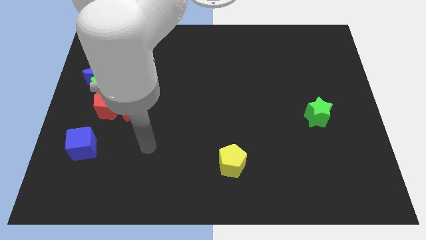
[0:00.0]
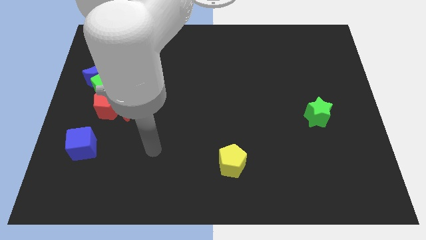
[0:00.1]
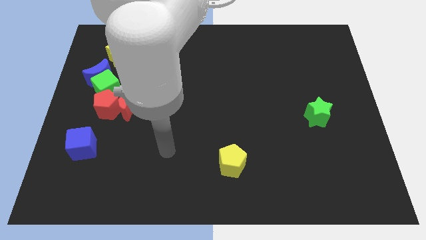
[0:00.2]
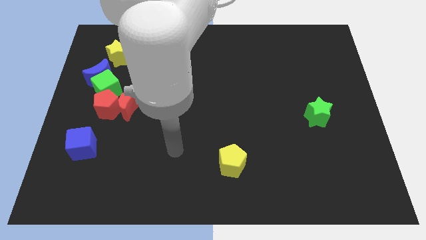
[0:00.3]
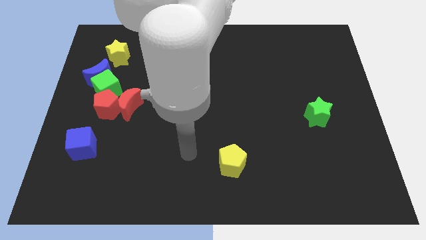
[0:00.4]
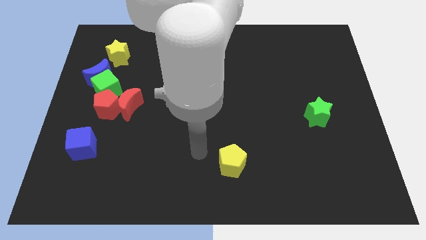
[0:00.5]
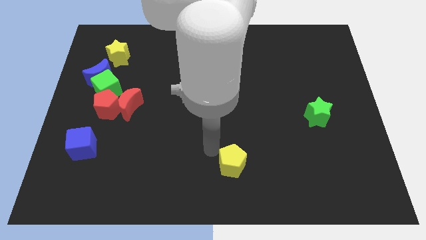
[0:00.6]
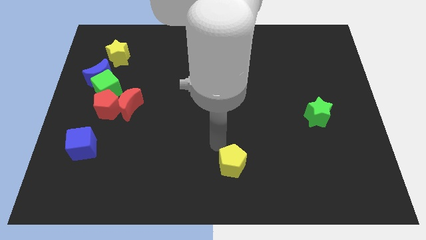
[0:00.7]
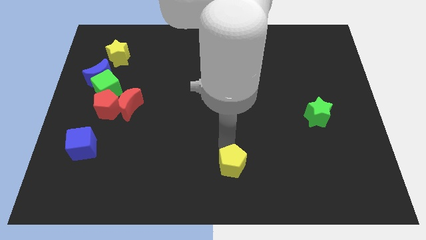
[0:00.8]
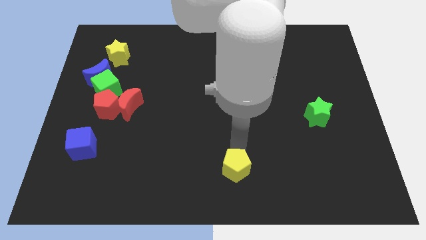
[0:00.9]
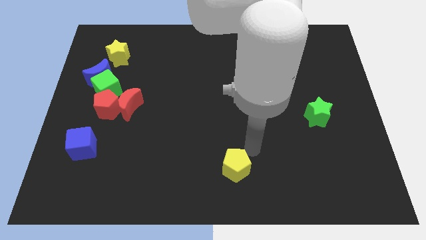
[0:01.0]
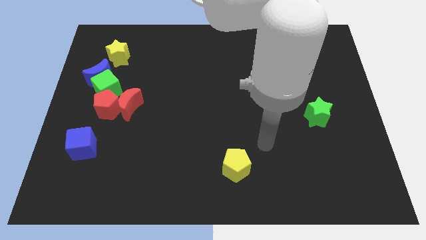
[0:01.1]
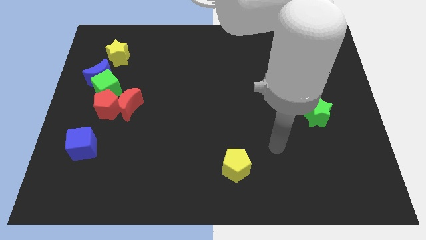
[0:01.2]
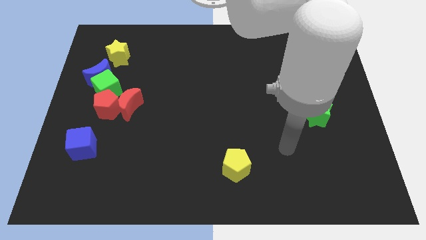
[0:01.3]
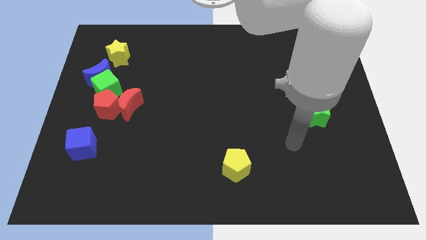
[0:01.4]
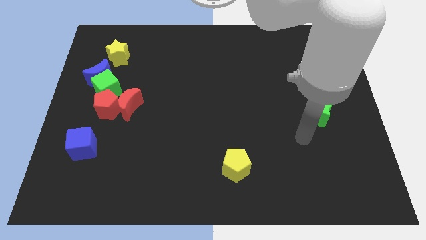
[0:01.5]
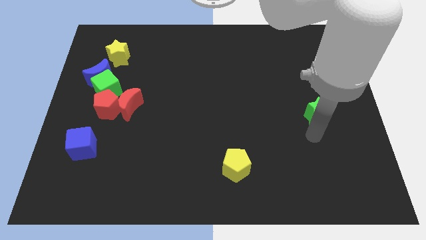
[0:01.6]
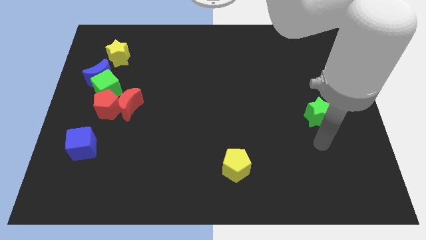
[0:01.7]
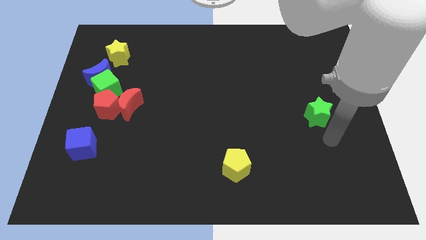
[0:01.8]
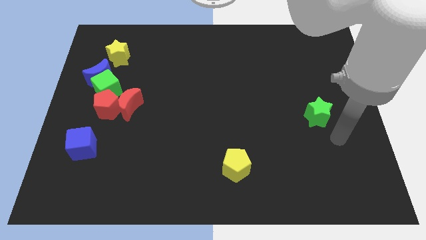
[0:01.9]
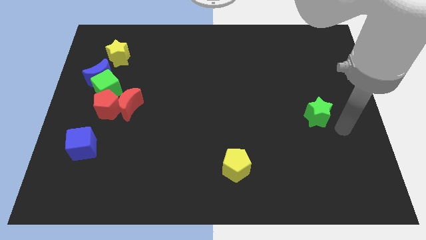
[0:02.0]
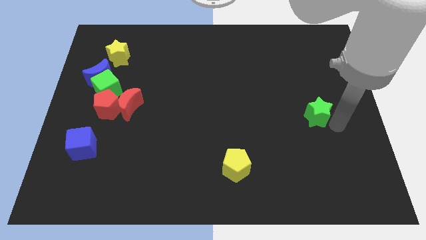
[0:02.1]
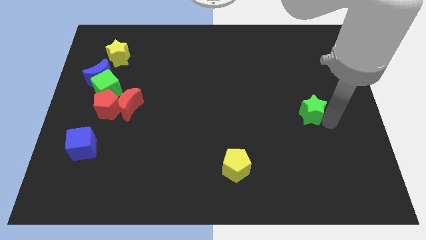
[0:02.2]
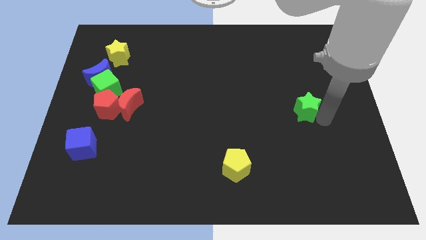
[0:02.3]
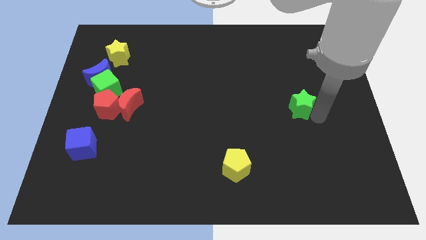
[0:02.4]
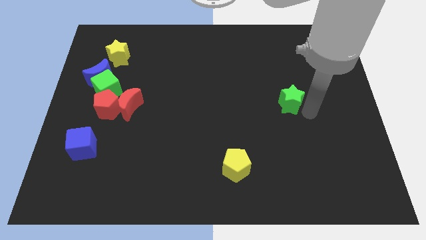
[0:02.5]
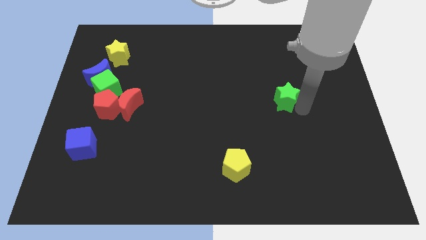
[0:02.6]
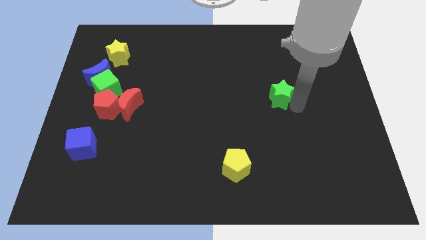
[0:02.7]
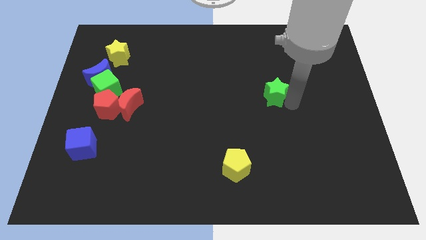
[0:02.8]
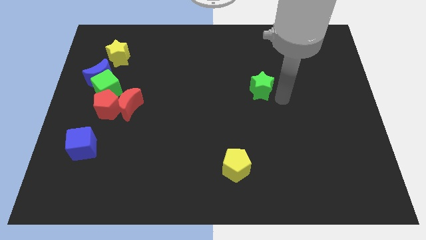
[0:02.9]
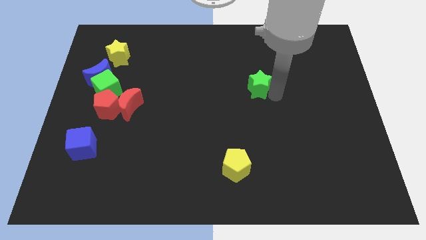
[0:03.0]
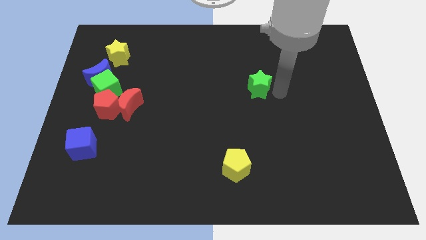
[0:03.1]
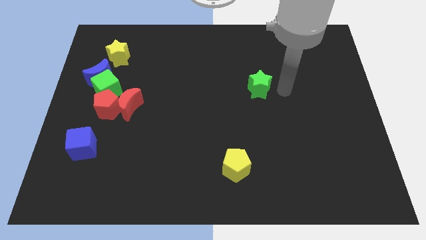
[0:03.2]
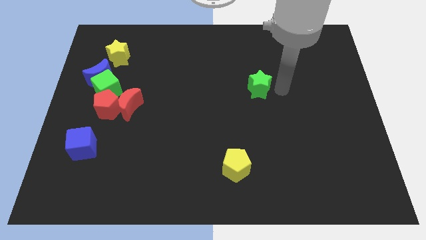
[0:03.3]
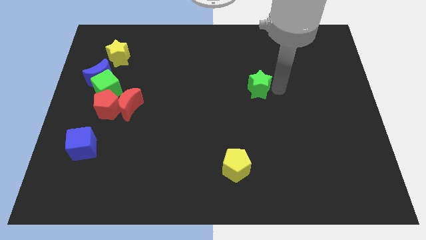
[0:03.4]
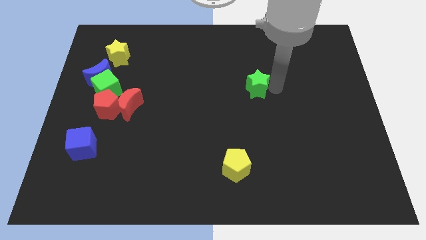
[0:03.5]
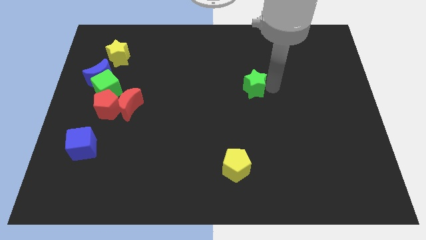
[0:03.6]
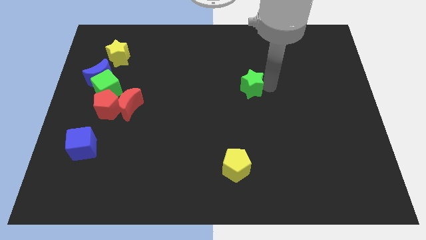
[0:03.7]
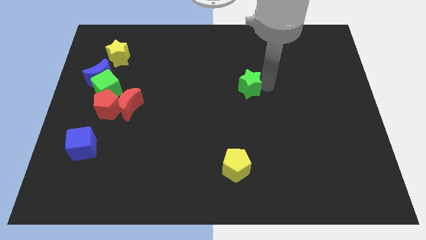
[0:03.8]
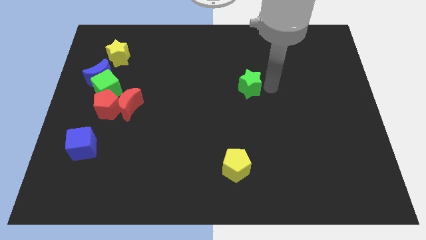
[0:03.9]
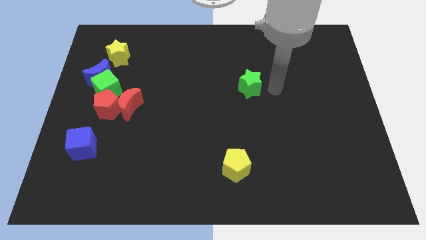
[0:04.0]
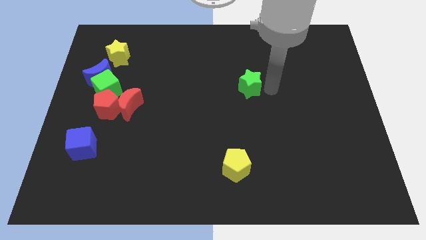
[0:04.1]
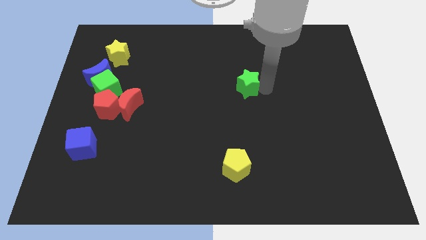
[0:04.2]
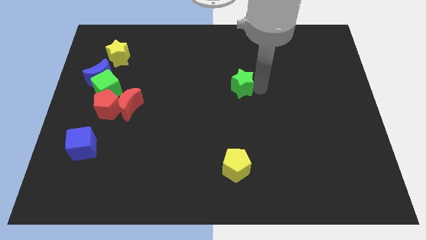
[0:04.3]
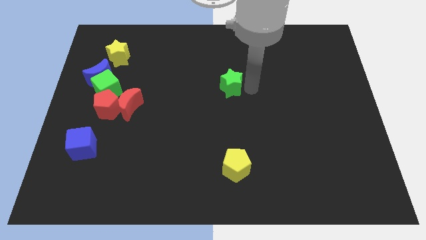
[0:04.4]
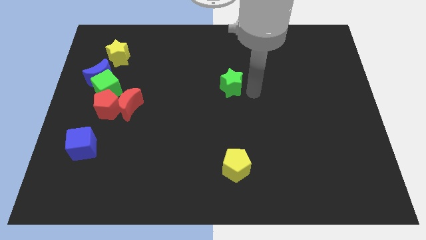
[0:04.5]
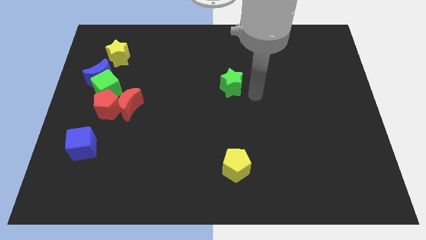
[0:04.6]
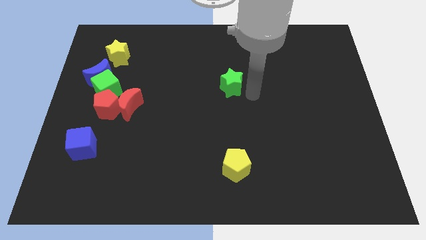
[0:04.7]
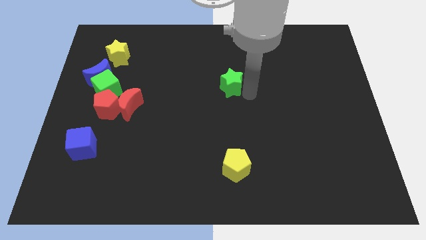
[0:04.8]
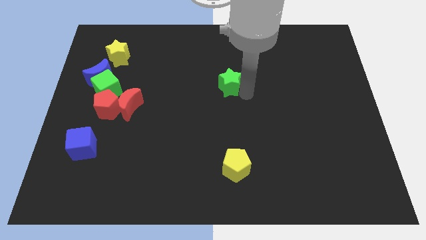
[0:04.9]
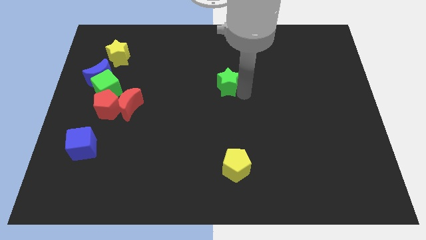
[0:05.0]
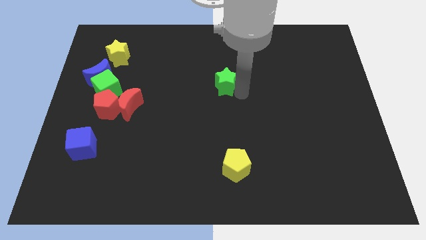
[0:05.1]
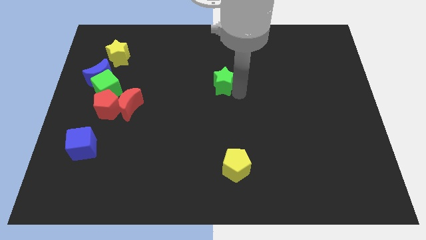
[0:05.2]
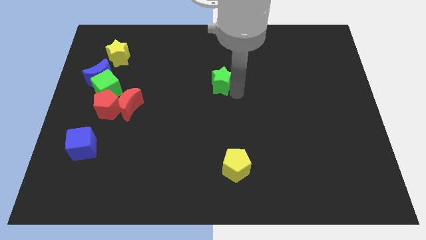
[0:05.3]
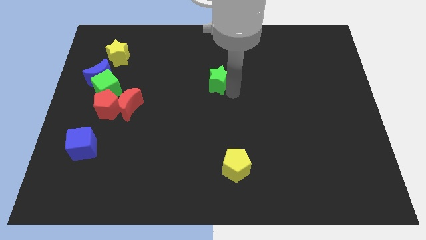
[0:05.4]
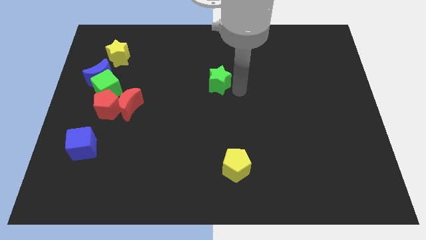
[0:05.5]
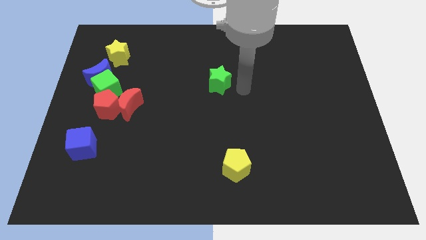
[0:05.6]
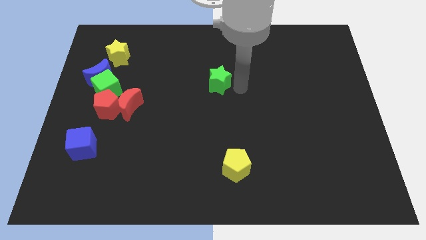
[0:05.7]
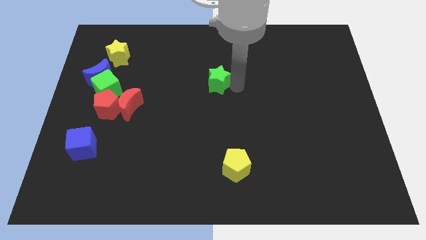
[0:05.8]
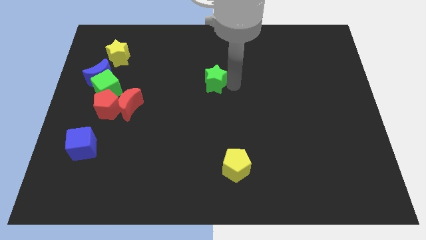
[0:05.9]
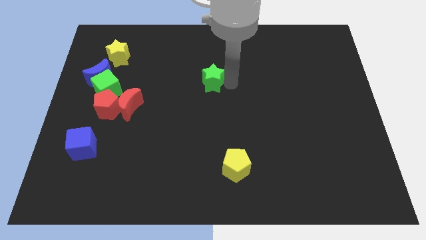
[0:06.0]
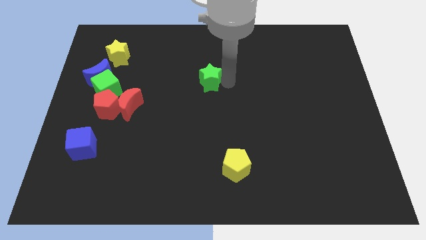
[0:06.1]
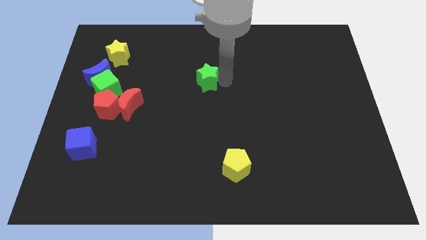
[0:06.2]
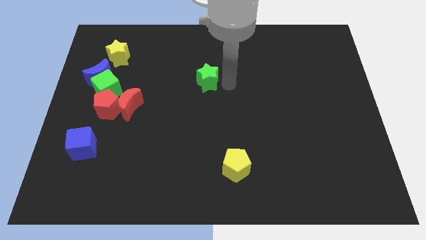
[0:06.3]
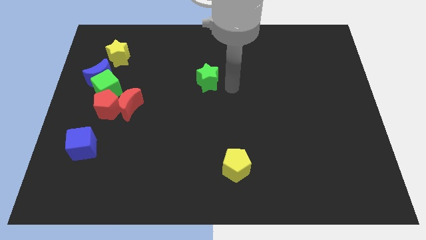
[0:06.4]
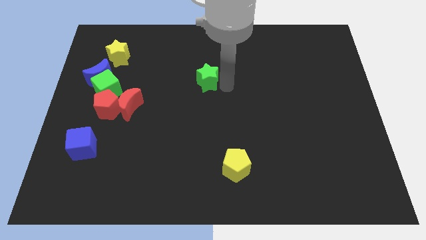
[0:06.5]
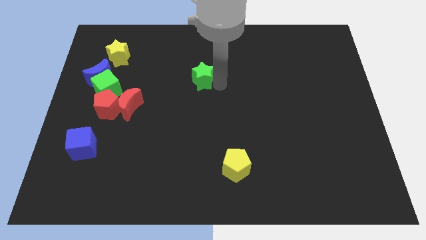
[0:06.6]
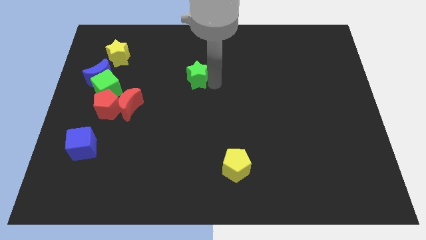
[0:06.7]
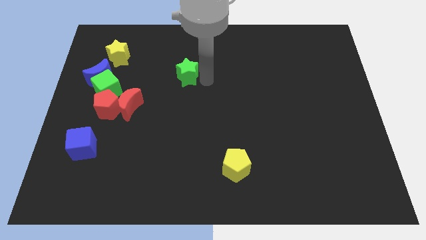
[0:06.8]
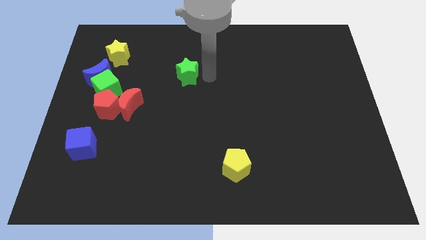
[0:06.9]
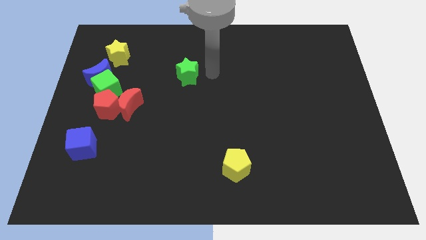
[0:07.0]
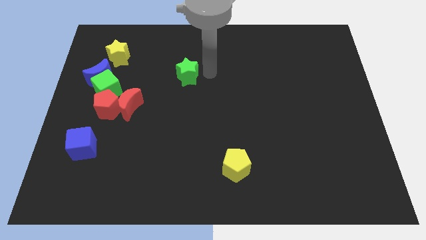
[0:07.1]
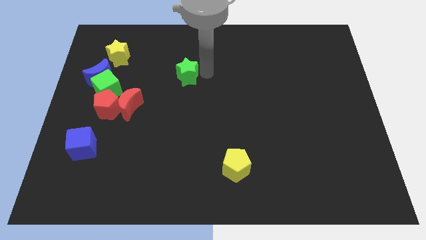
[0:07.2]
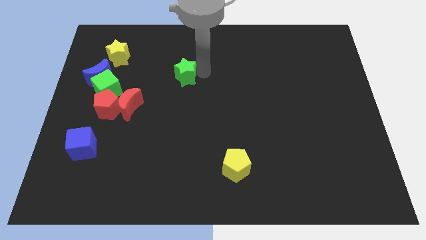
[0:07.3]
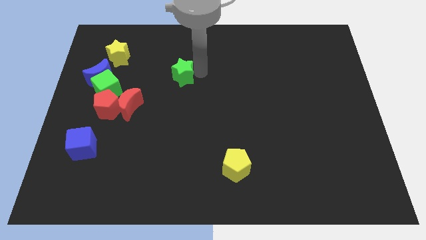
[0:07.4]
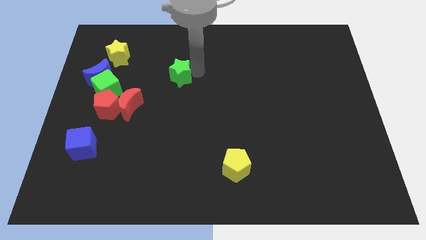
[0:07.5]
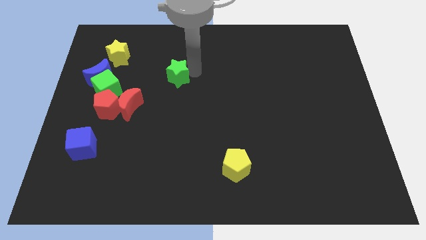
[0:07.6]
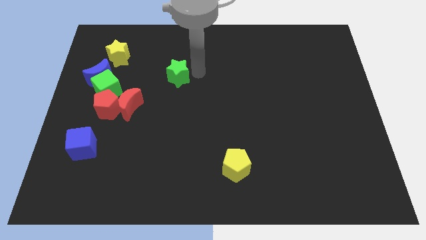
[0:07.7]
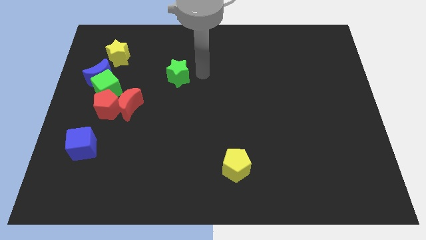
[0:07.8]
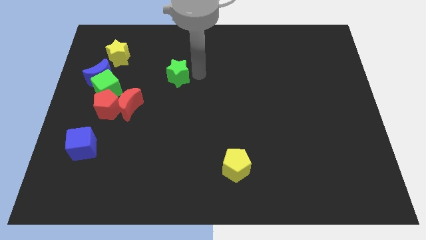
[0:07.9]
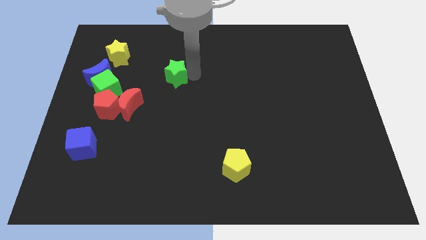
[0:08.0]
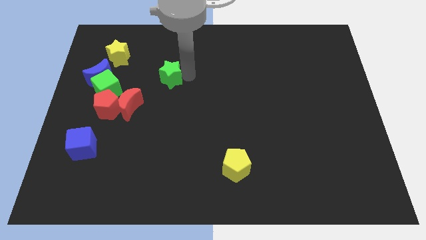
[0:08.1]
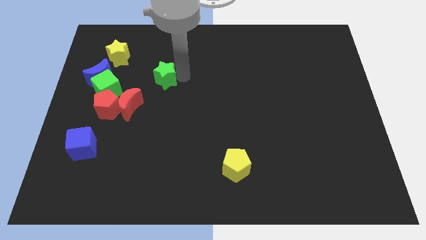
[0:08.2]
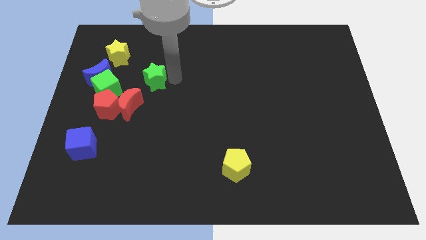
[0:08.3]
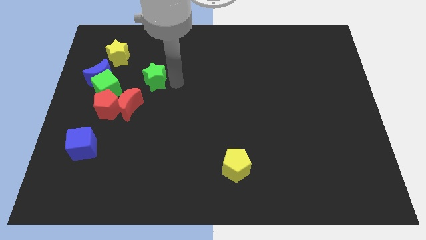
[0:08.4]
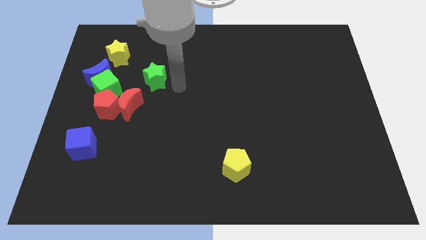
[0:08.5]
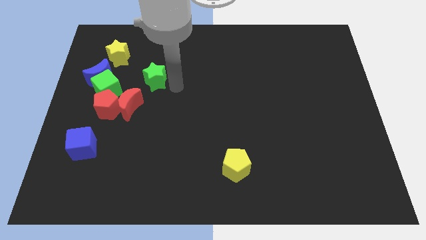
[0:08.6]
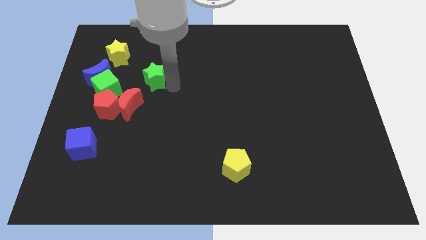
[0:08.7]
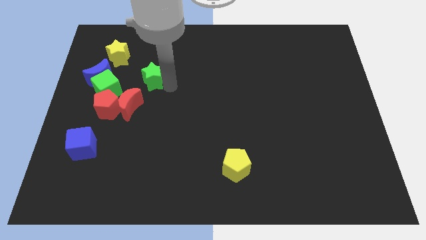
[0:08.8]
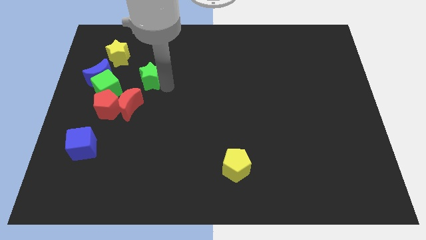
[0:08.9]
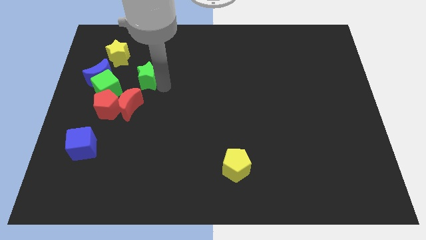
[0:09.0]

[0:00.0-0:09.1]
put the green star diagonally up and to the right of the green cube
